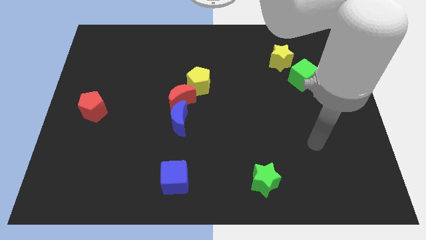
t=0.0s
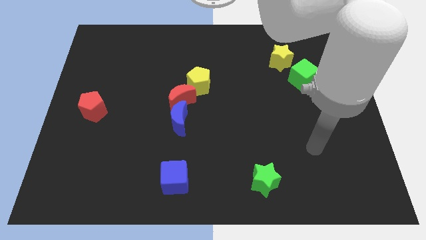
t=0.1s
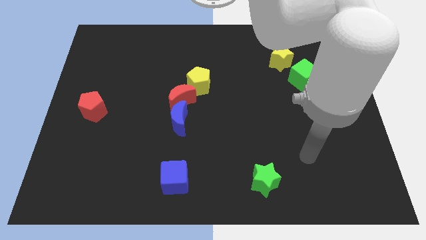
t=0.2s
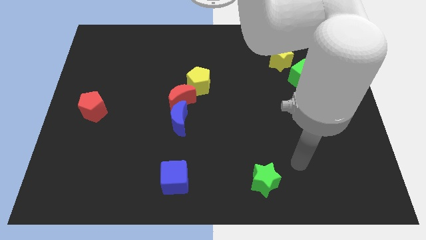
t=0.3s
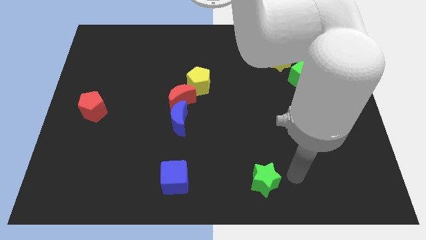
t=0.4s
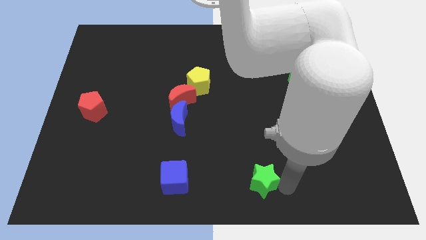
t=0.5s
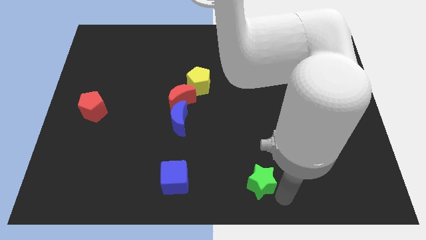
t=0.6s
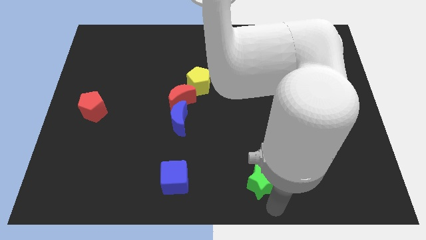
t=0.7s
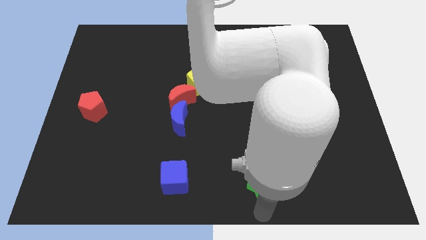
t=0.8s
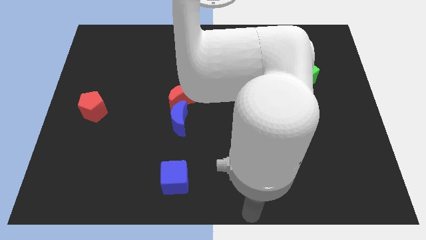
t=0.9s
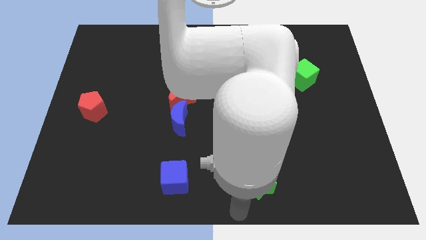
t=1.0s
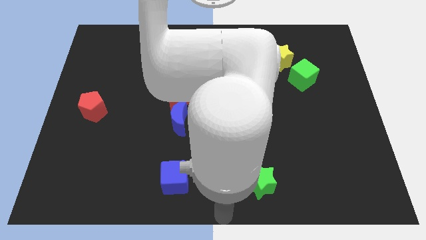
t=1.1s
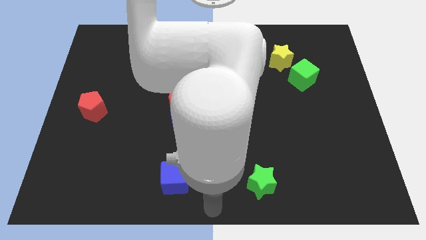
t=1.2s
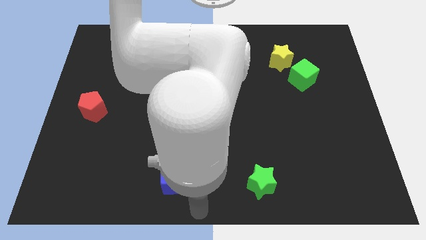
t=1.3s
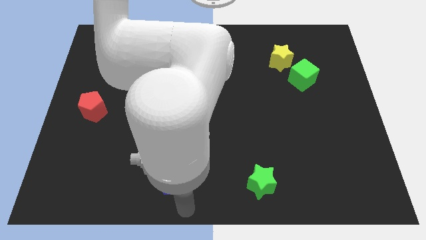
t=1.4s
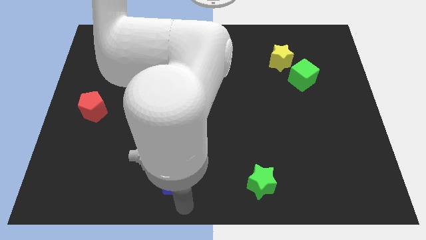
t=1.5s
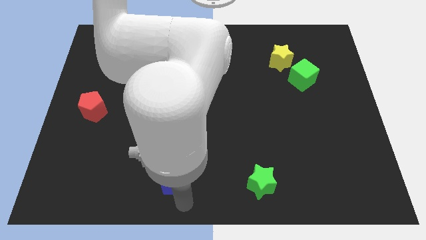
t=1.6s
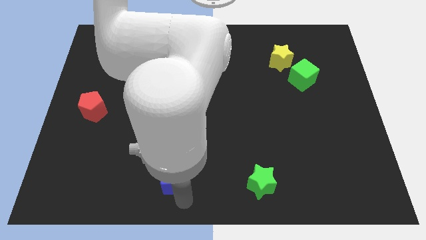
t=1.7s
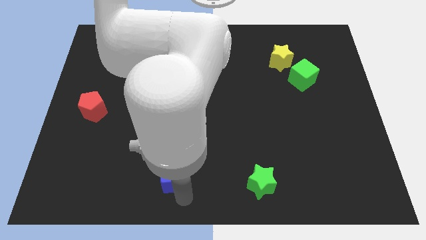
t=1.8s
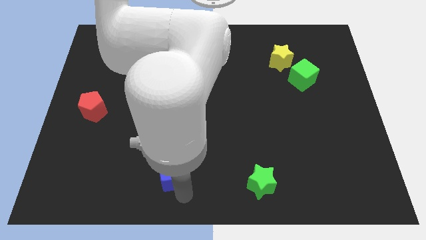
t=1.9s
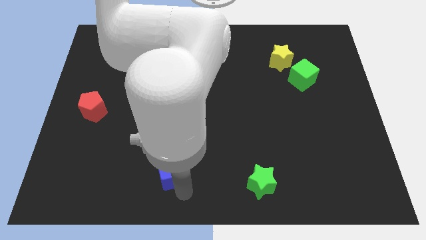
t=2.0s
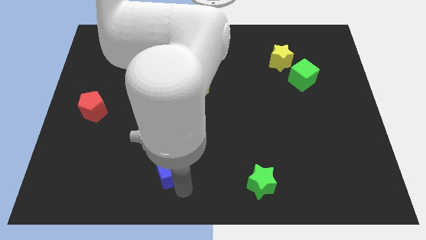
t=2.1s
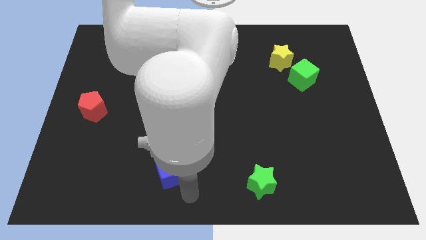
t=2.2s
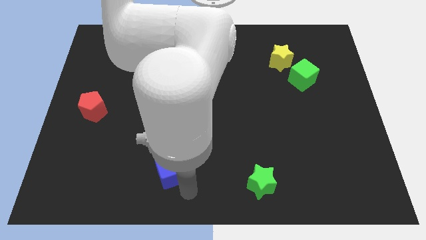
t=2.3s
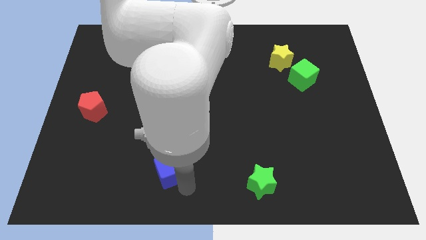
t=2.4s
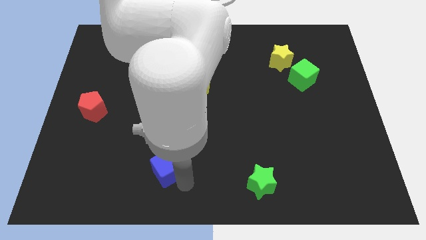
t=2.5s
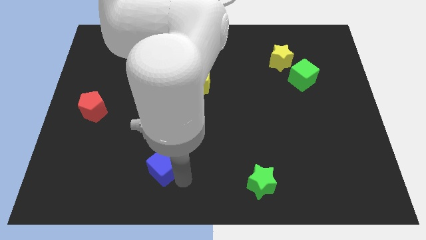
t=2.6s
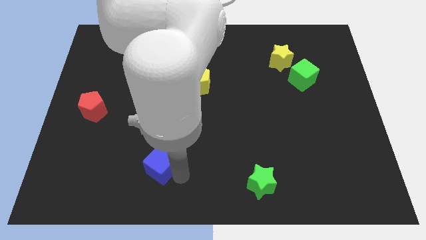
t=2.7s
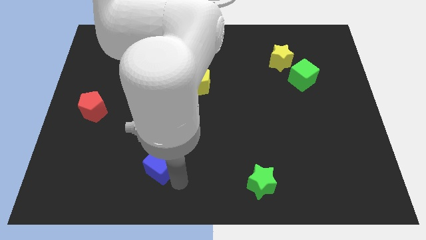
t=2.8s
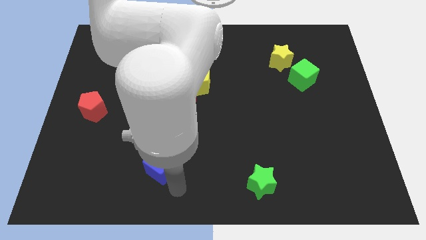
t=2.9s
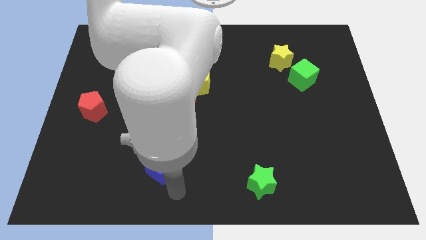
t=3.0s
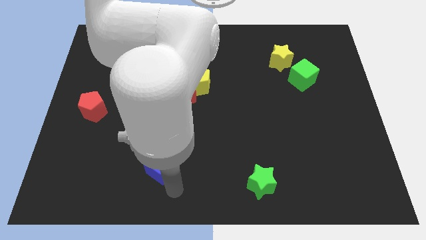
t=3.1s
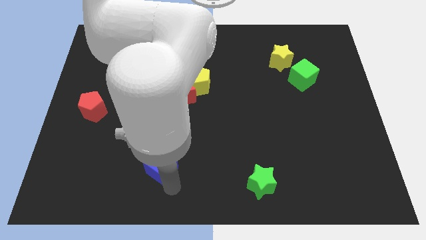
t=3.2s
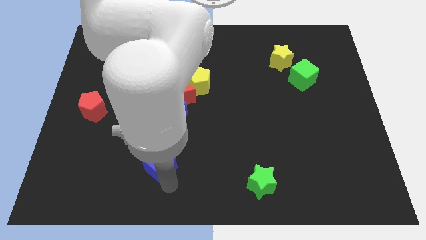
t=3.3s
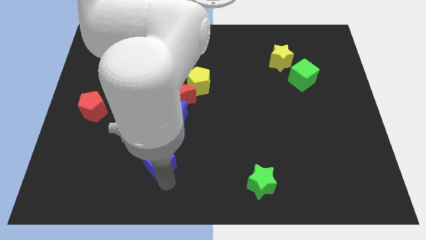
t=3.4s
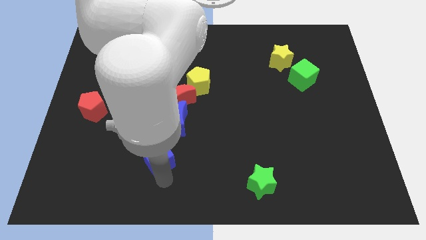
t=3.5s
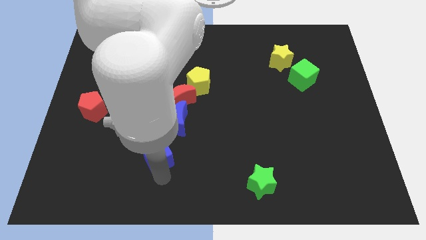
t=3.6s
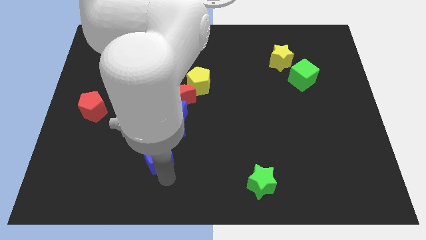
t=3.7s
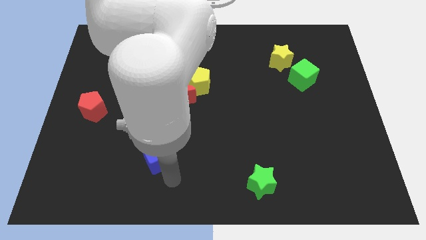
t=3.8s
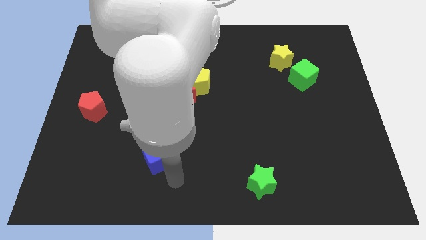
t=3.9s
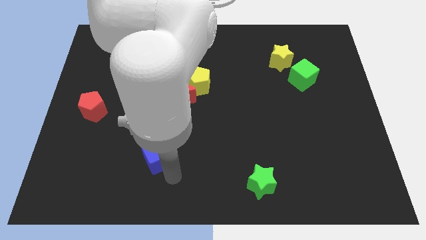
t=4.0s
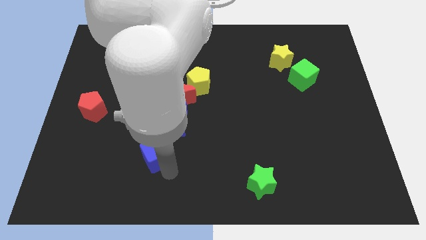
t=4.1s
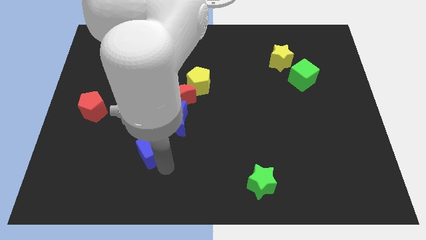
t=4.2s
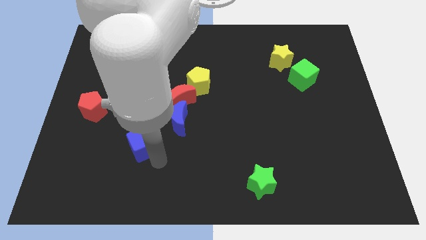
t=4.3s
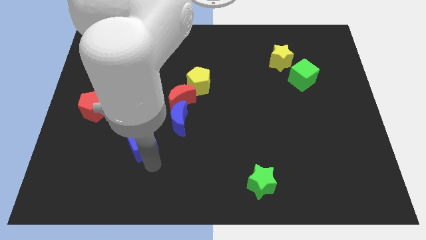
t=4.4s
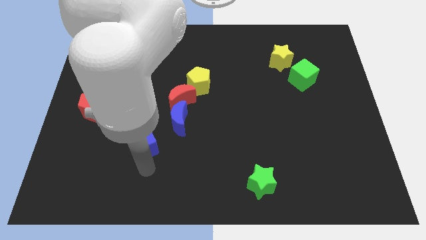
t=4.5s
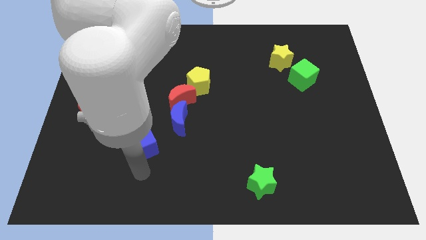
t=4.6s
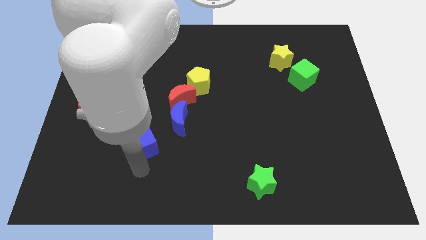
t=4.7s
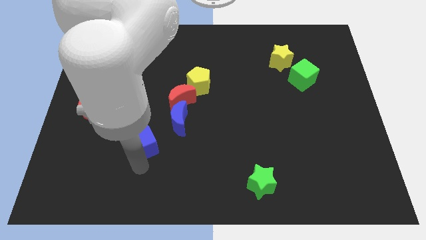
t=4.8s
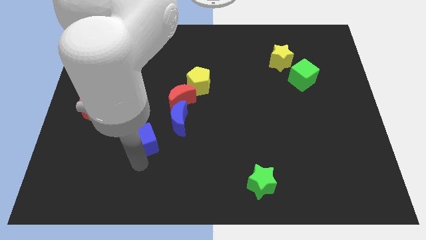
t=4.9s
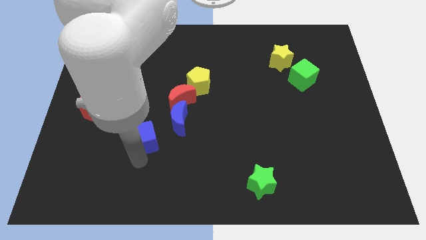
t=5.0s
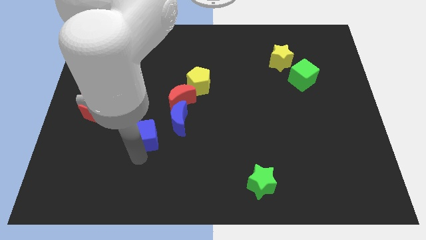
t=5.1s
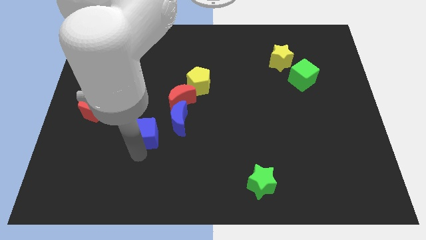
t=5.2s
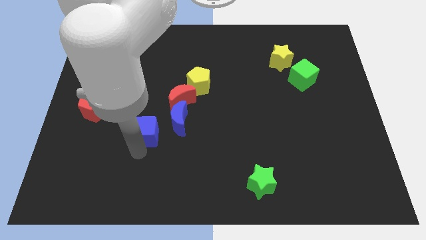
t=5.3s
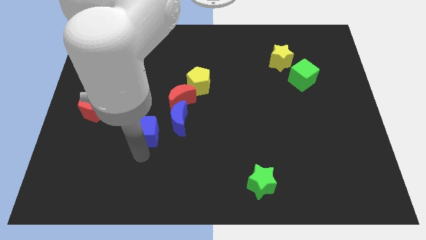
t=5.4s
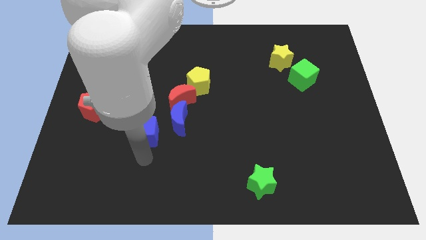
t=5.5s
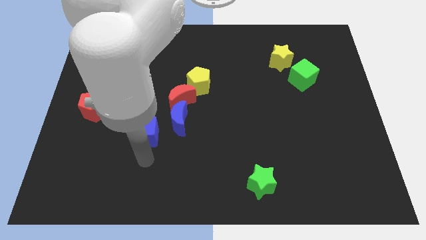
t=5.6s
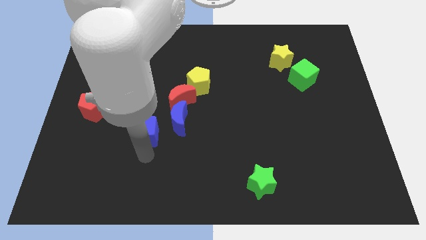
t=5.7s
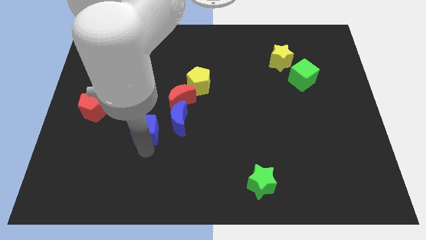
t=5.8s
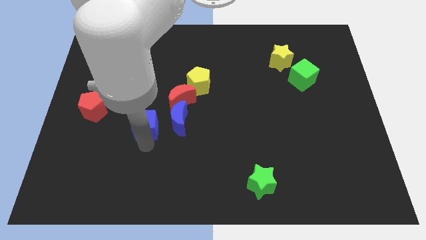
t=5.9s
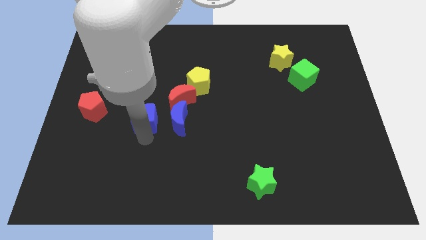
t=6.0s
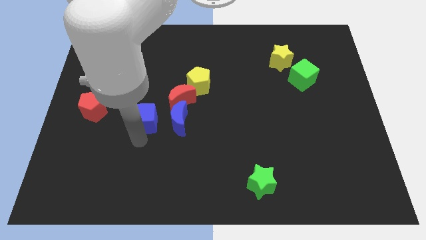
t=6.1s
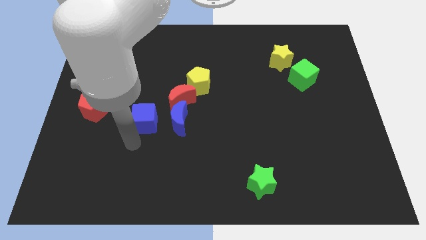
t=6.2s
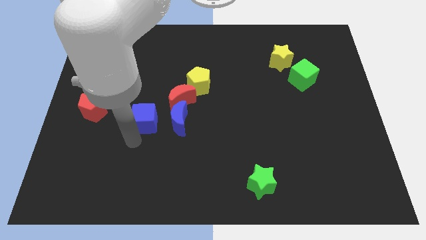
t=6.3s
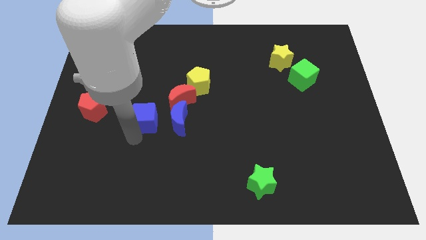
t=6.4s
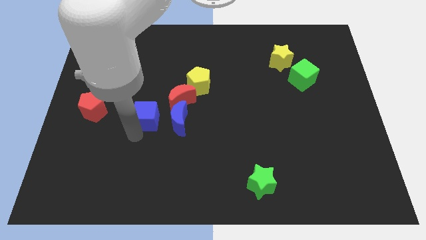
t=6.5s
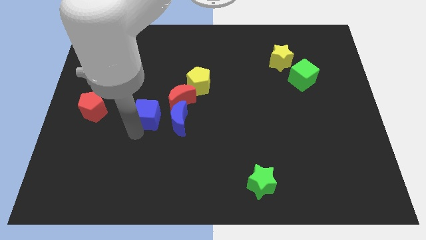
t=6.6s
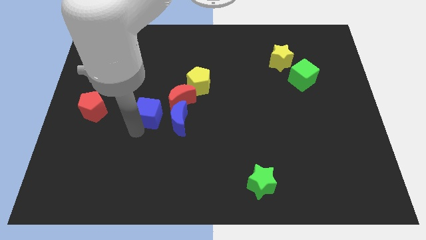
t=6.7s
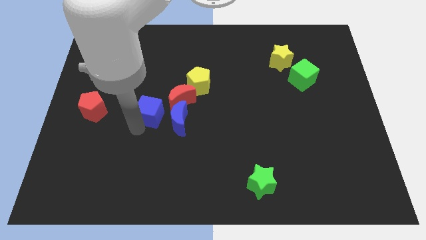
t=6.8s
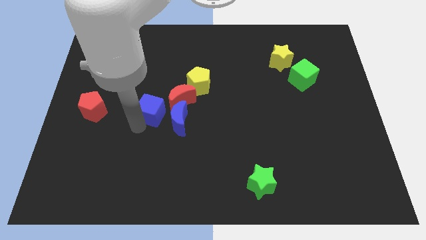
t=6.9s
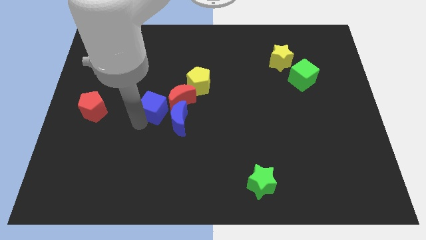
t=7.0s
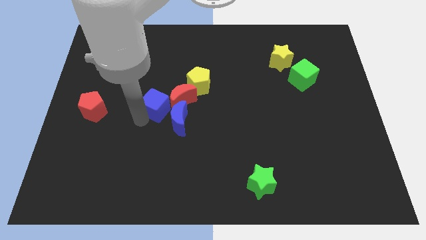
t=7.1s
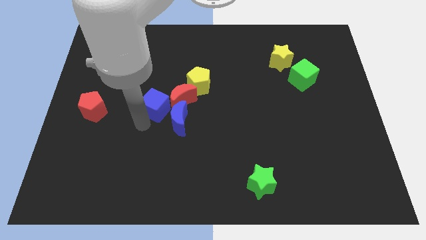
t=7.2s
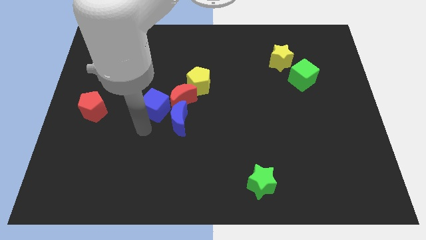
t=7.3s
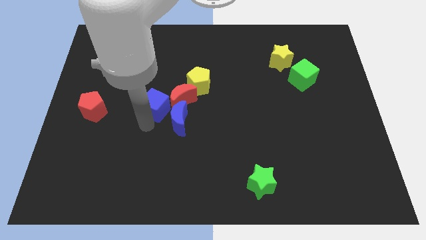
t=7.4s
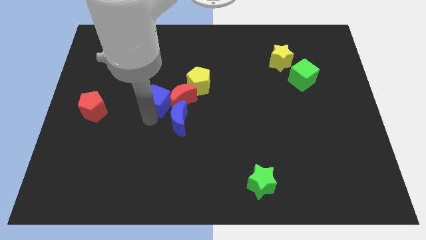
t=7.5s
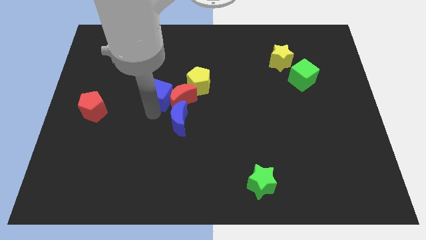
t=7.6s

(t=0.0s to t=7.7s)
move the blue cube up

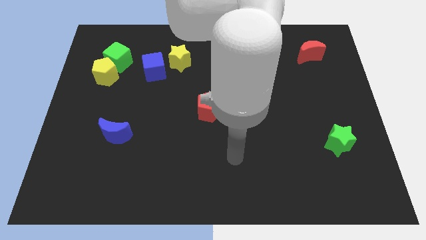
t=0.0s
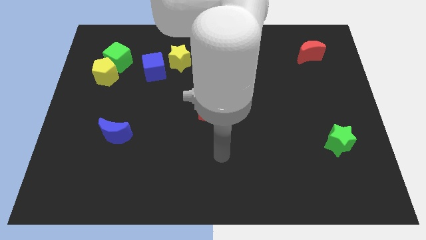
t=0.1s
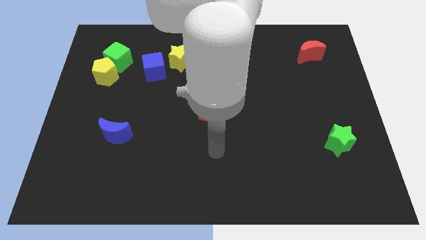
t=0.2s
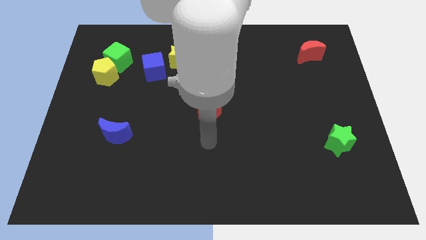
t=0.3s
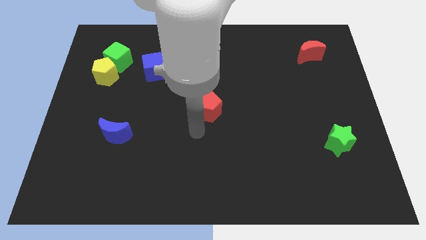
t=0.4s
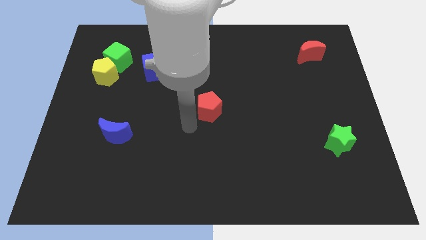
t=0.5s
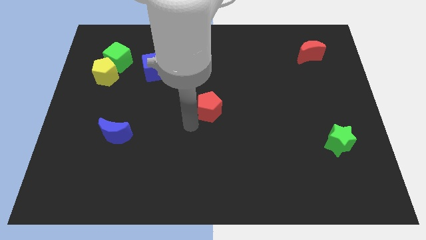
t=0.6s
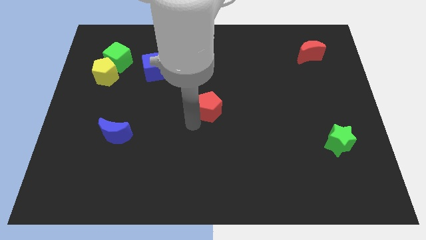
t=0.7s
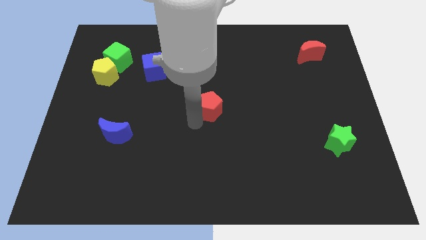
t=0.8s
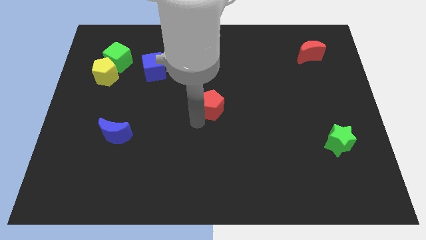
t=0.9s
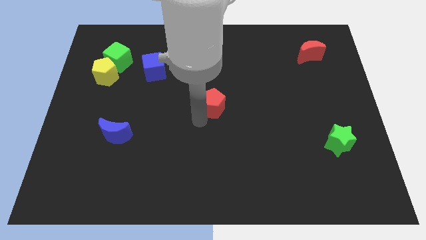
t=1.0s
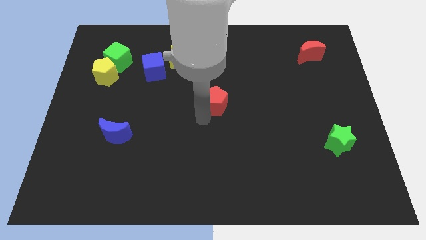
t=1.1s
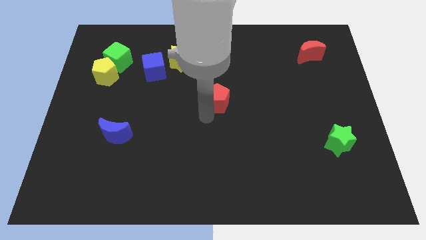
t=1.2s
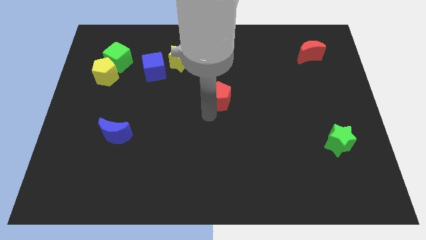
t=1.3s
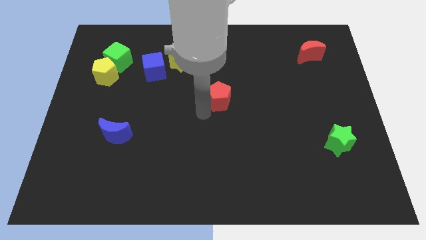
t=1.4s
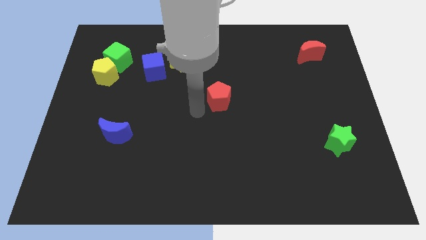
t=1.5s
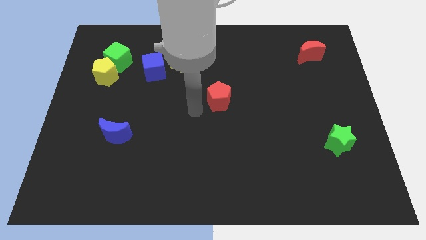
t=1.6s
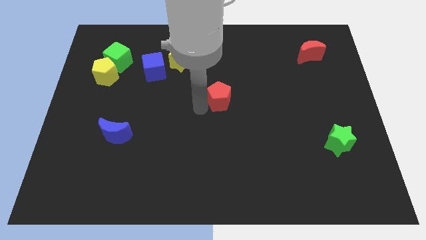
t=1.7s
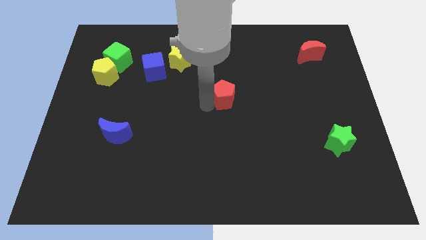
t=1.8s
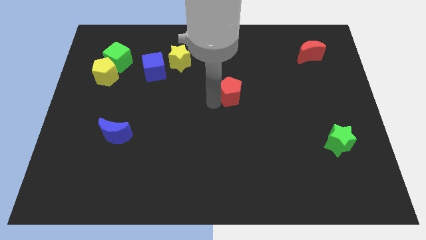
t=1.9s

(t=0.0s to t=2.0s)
move the red pentagon a little up and right
